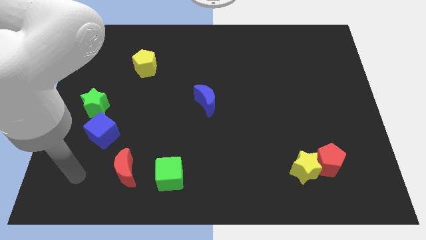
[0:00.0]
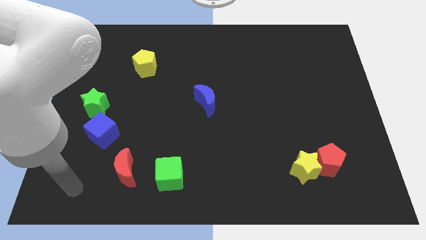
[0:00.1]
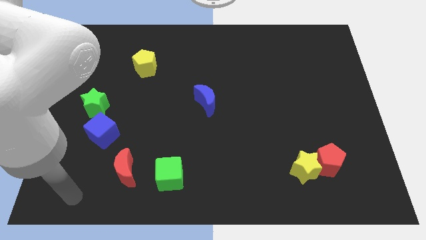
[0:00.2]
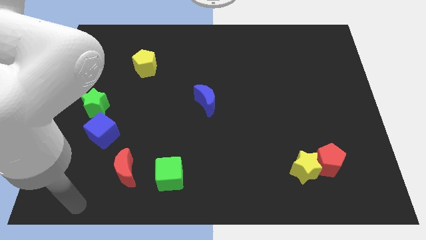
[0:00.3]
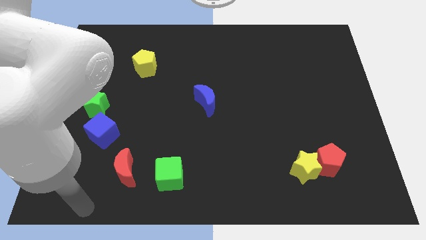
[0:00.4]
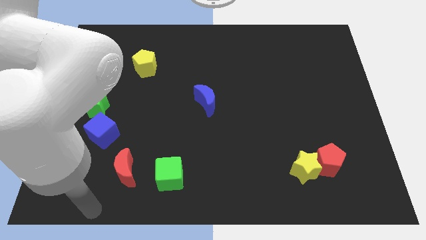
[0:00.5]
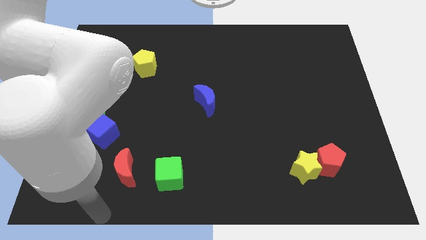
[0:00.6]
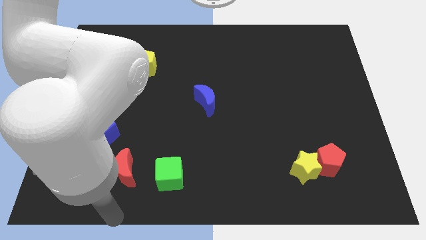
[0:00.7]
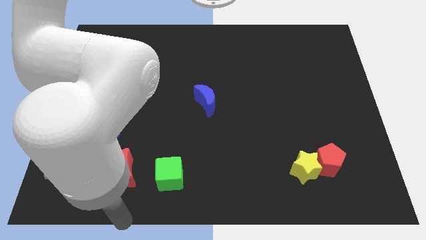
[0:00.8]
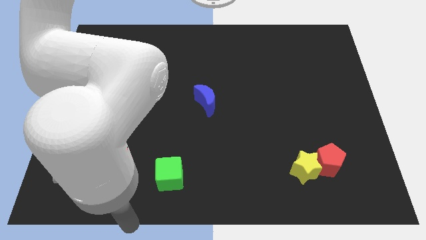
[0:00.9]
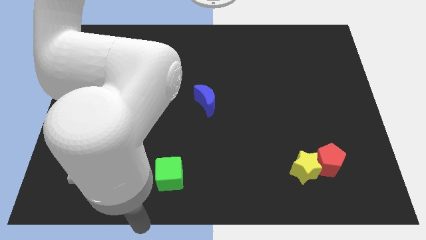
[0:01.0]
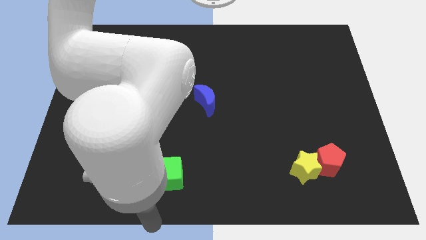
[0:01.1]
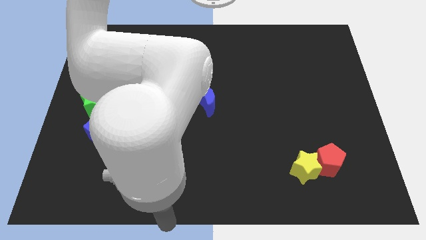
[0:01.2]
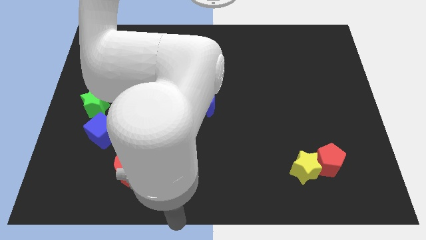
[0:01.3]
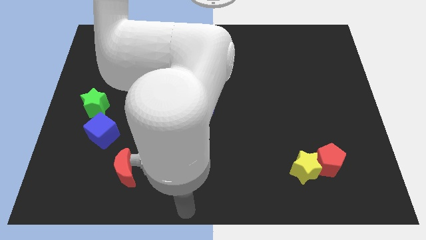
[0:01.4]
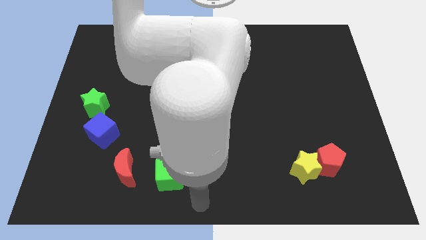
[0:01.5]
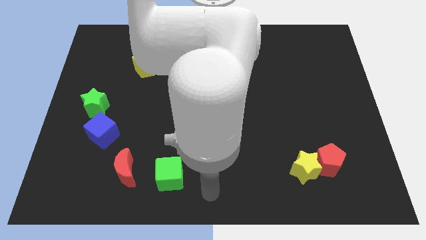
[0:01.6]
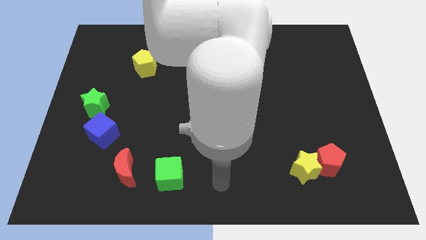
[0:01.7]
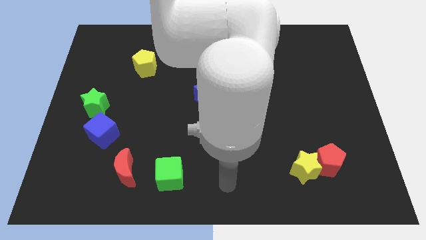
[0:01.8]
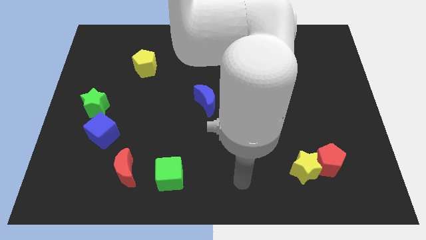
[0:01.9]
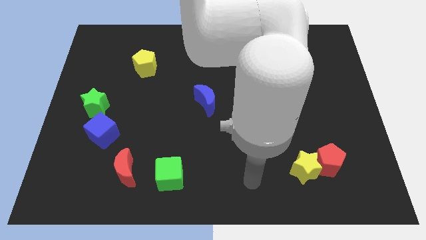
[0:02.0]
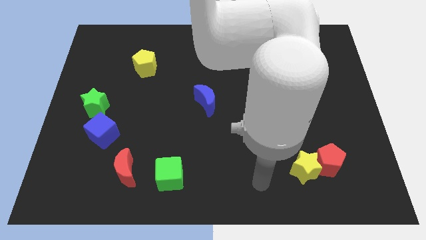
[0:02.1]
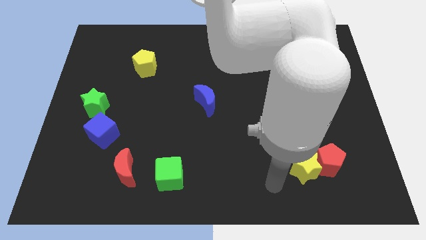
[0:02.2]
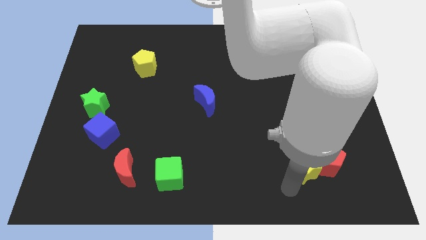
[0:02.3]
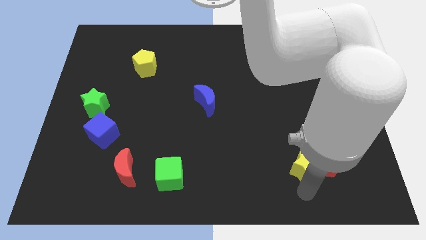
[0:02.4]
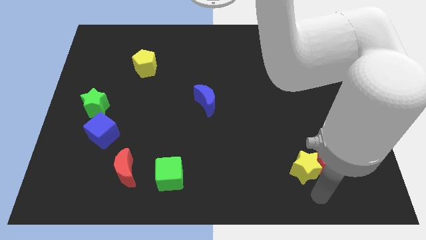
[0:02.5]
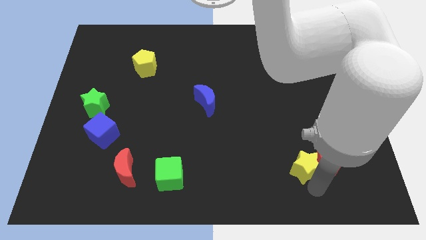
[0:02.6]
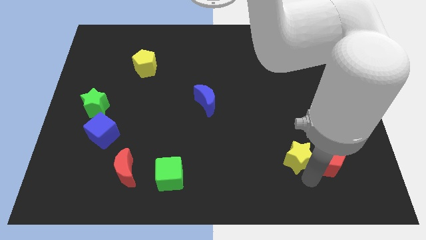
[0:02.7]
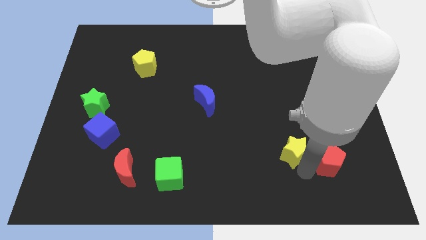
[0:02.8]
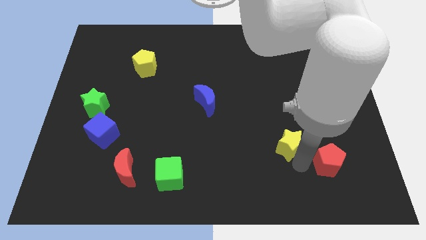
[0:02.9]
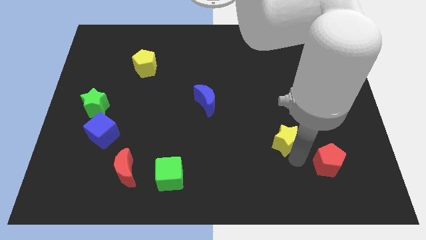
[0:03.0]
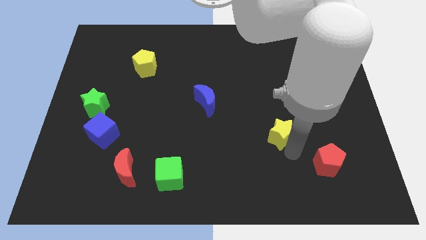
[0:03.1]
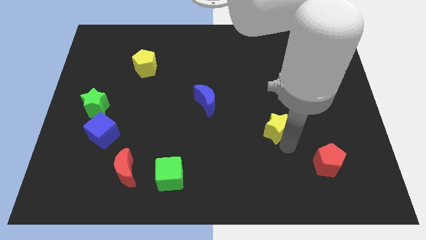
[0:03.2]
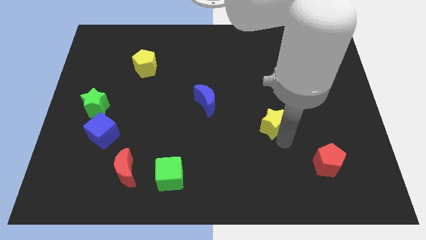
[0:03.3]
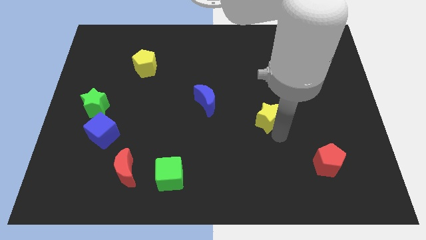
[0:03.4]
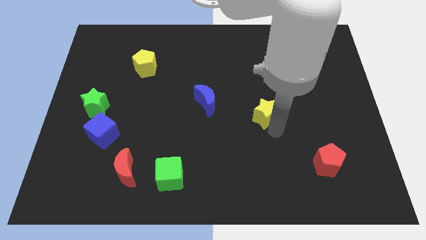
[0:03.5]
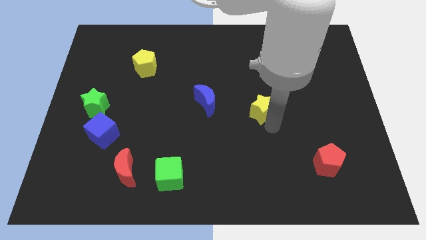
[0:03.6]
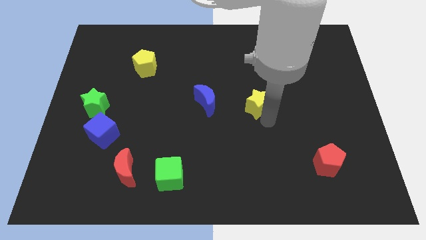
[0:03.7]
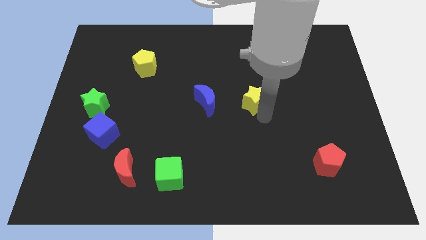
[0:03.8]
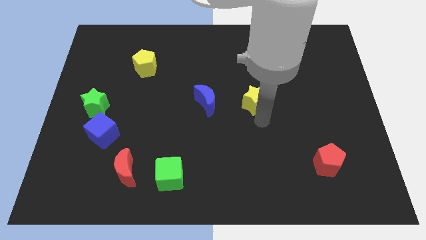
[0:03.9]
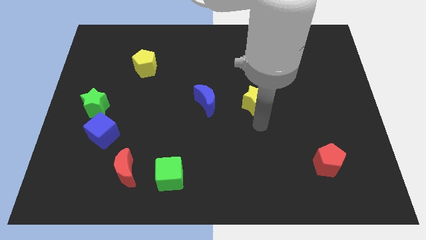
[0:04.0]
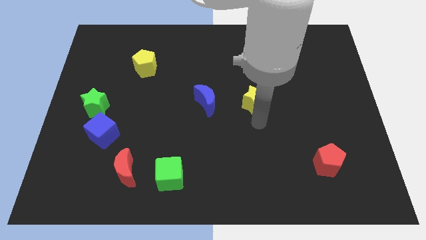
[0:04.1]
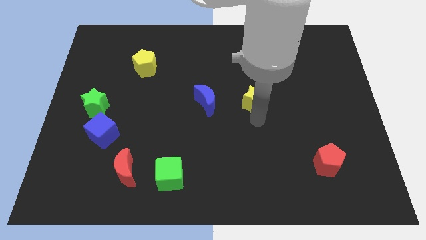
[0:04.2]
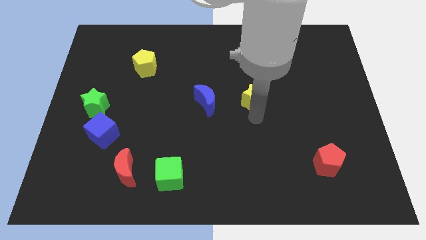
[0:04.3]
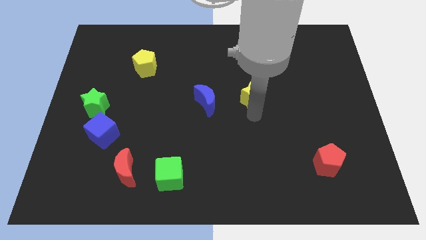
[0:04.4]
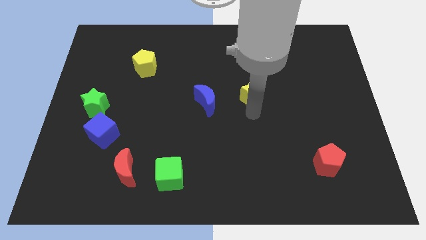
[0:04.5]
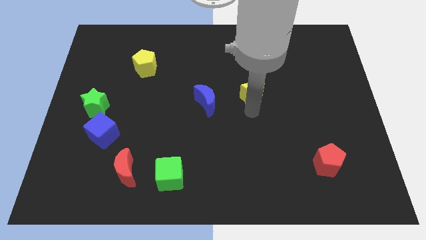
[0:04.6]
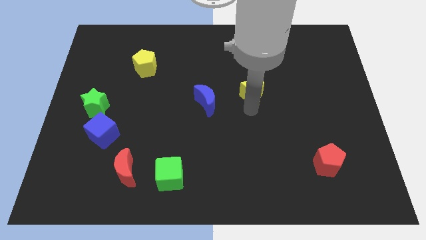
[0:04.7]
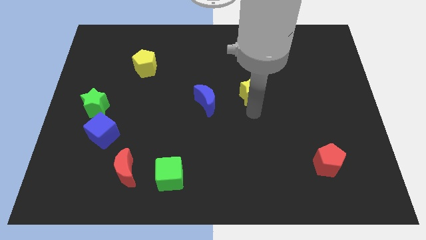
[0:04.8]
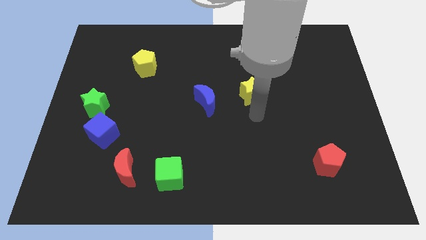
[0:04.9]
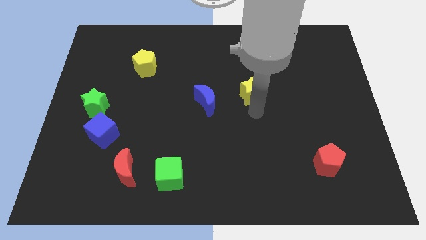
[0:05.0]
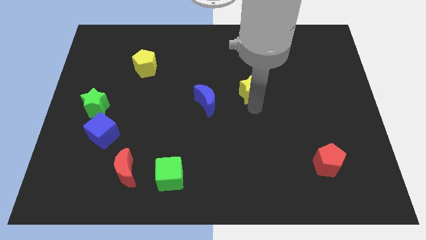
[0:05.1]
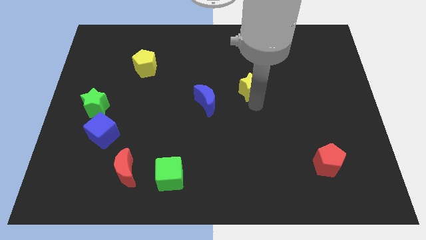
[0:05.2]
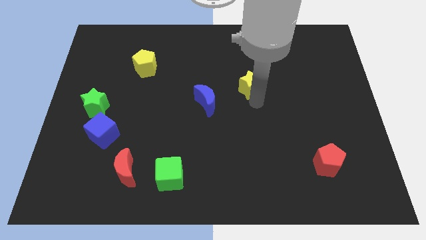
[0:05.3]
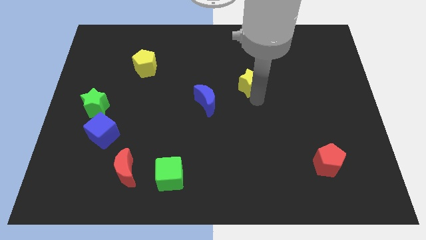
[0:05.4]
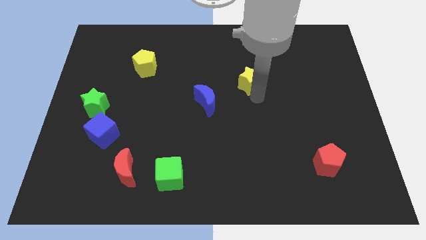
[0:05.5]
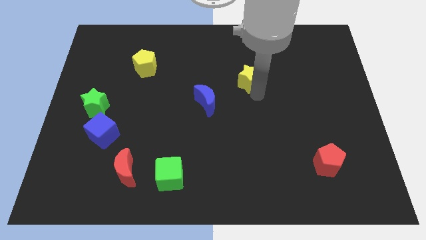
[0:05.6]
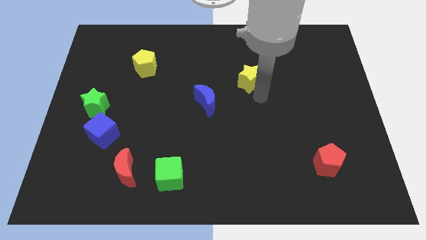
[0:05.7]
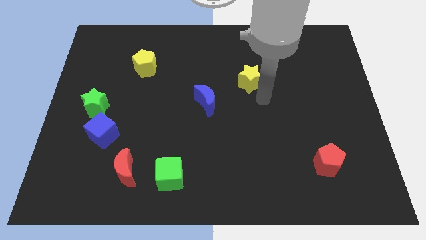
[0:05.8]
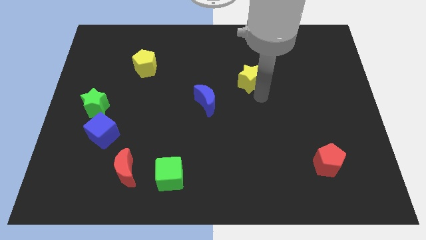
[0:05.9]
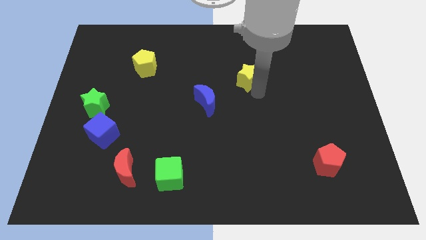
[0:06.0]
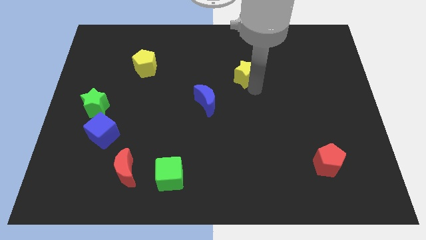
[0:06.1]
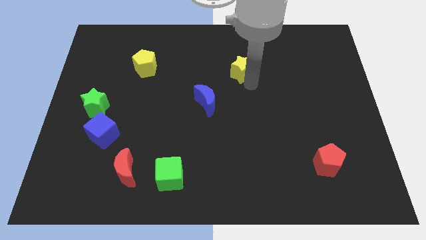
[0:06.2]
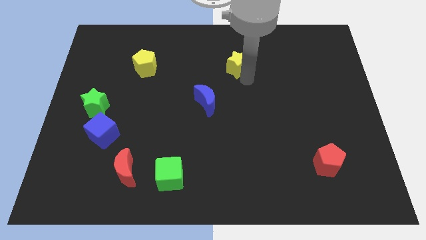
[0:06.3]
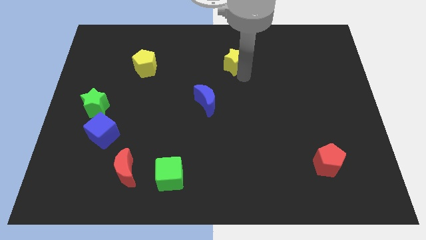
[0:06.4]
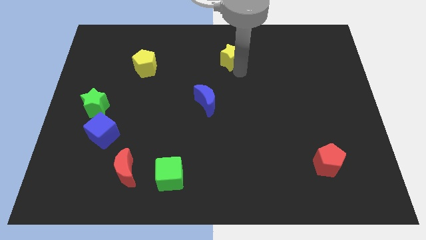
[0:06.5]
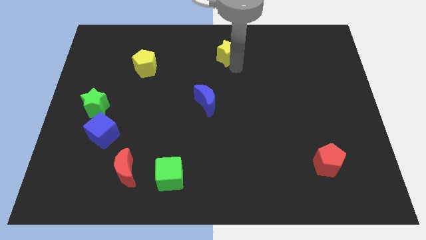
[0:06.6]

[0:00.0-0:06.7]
slide the yellow star to the top side

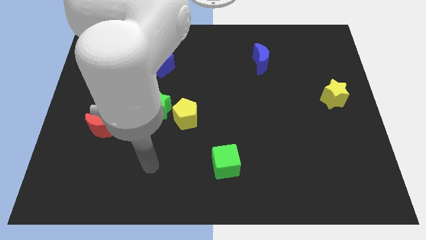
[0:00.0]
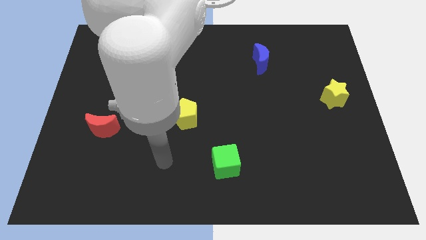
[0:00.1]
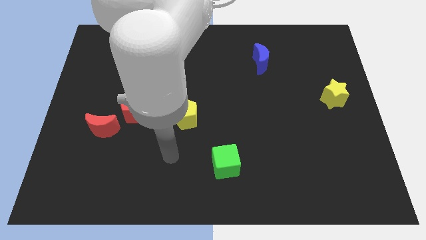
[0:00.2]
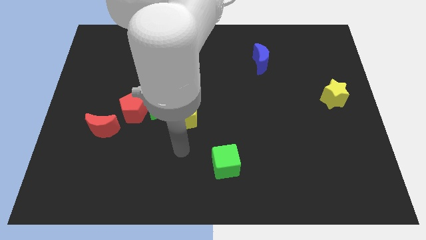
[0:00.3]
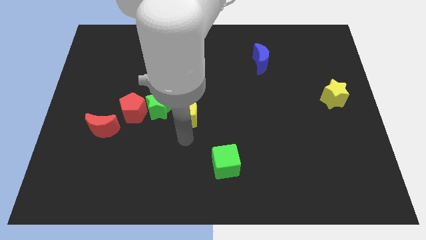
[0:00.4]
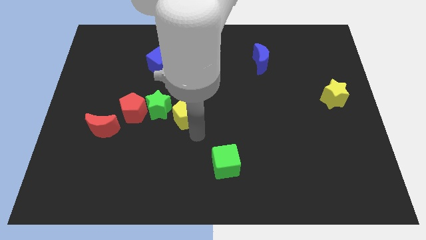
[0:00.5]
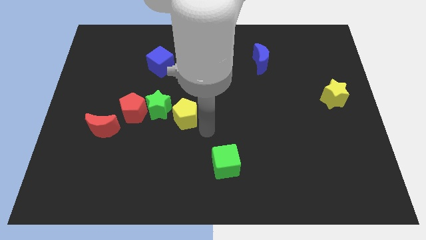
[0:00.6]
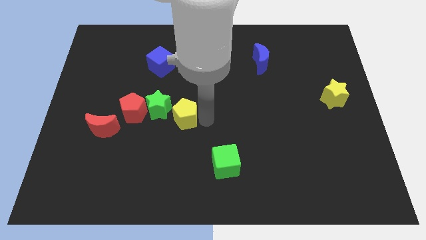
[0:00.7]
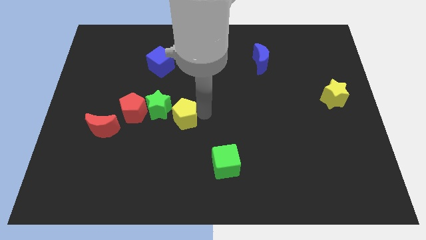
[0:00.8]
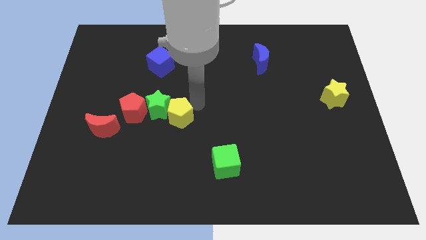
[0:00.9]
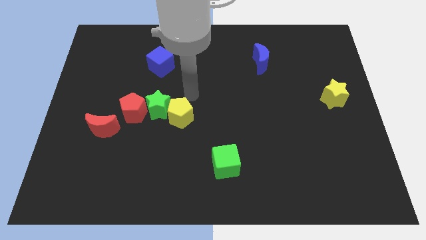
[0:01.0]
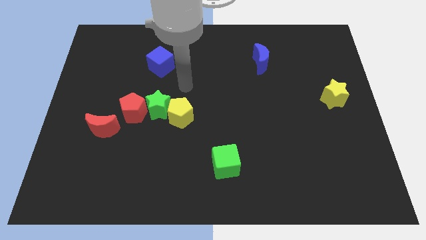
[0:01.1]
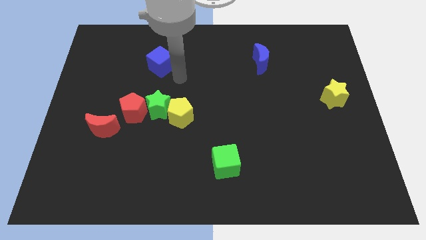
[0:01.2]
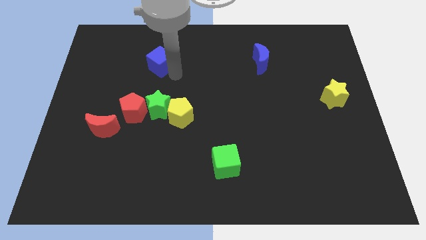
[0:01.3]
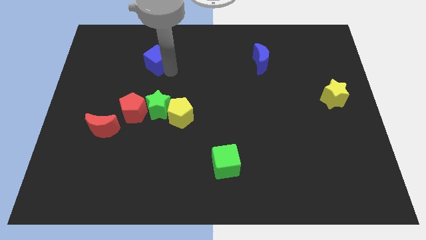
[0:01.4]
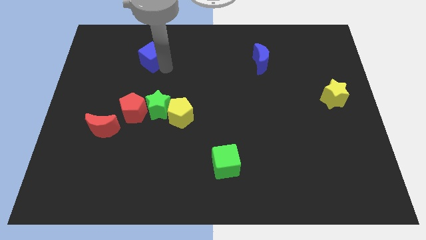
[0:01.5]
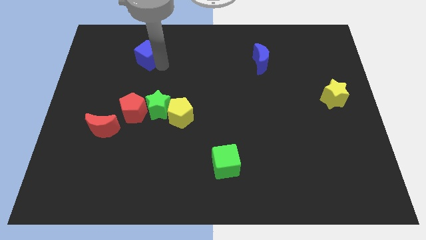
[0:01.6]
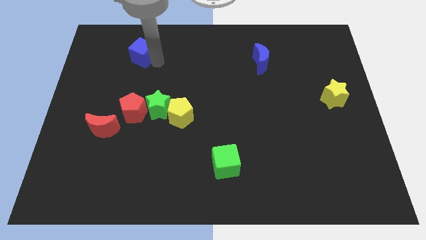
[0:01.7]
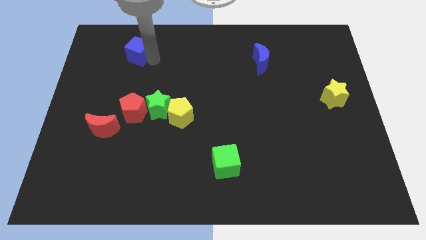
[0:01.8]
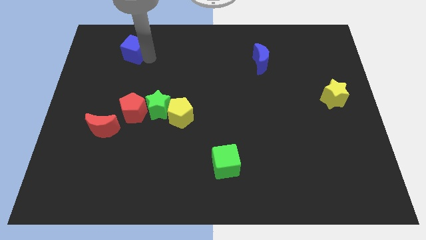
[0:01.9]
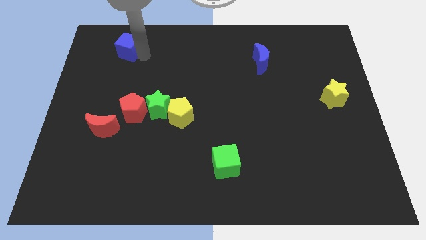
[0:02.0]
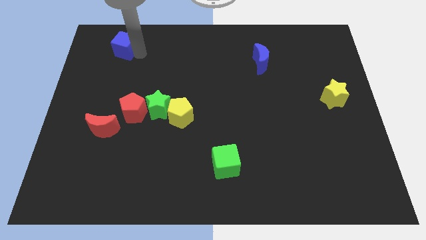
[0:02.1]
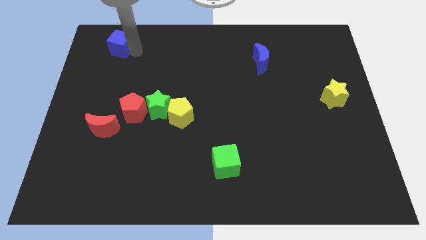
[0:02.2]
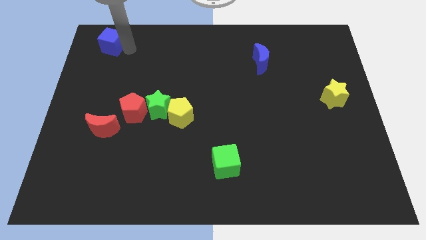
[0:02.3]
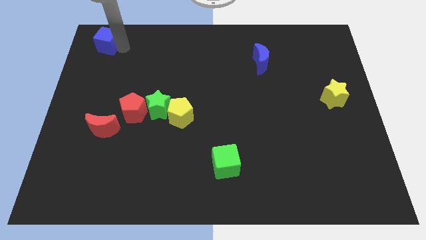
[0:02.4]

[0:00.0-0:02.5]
slide the blue cube to the top left of the board
